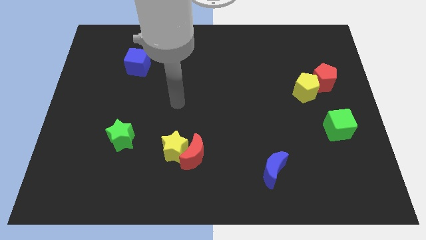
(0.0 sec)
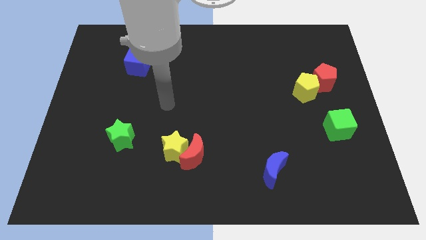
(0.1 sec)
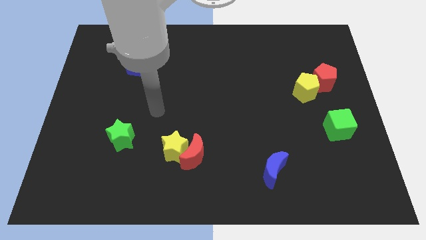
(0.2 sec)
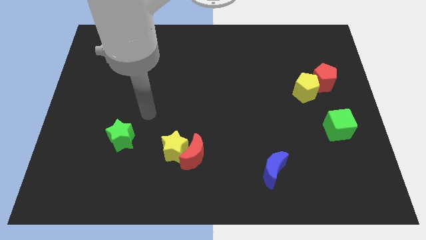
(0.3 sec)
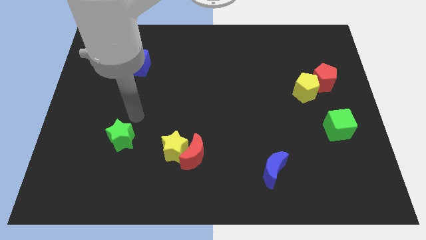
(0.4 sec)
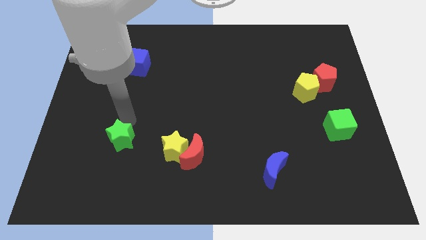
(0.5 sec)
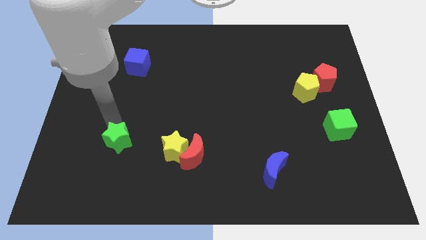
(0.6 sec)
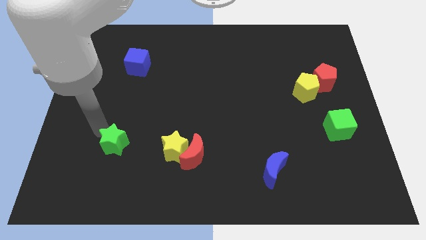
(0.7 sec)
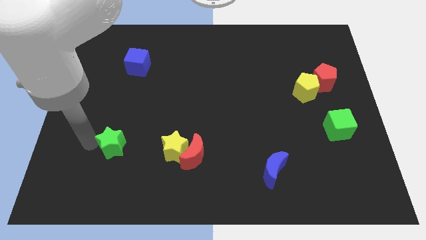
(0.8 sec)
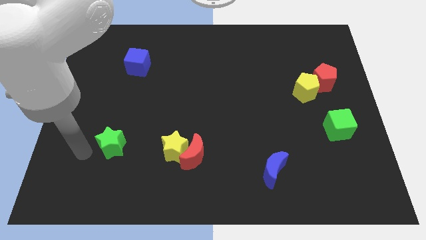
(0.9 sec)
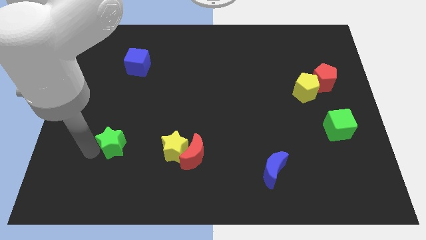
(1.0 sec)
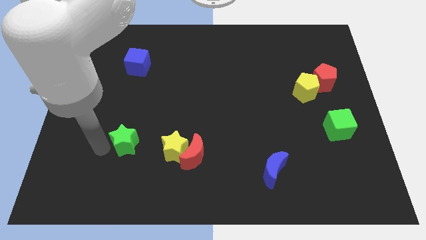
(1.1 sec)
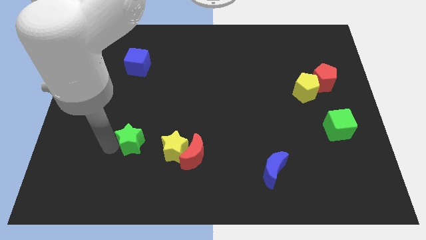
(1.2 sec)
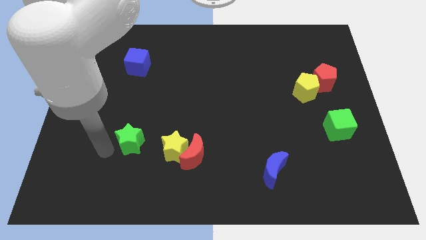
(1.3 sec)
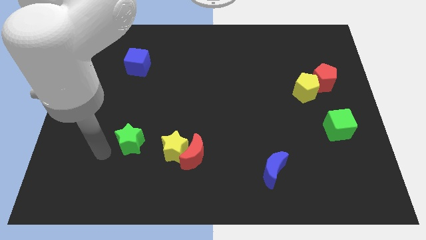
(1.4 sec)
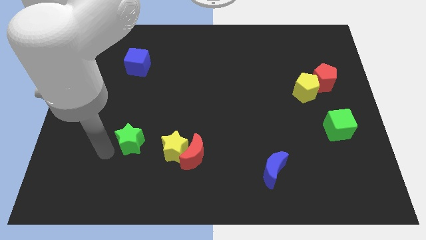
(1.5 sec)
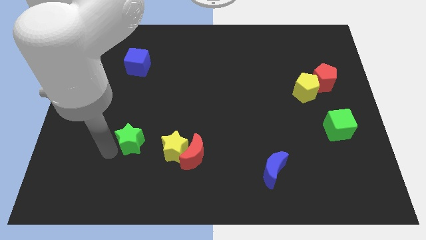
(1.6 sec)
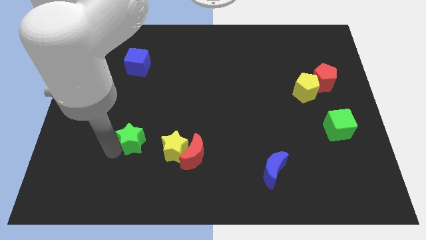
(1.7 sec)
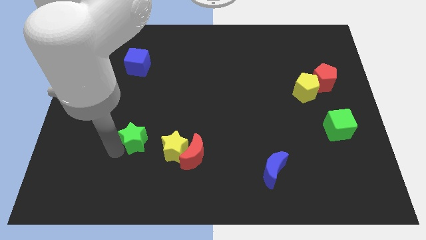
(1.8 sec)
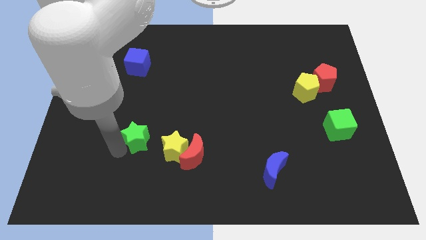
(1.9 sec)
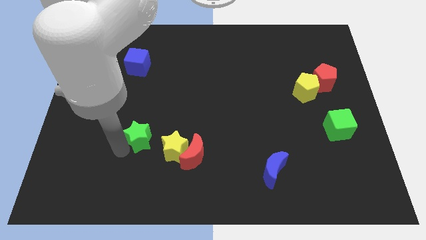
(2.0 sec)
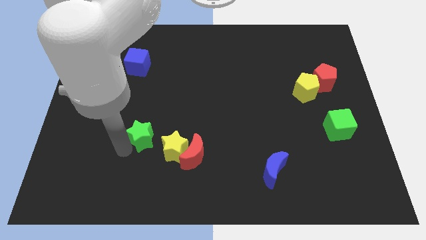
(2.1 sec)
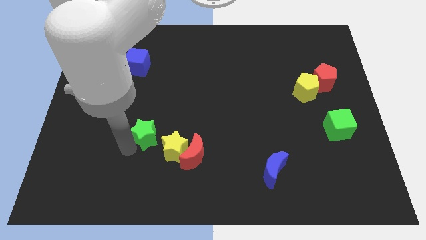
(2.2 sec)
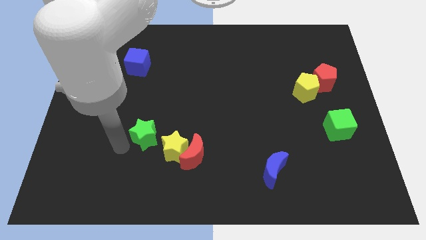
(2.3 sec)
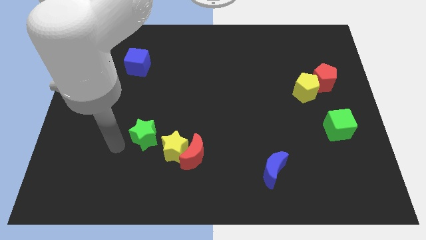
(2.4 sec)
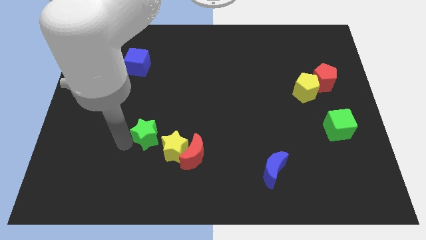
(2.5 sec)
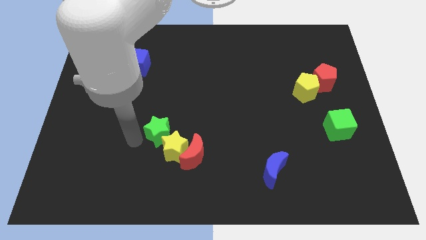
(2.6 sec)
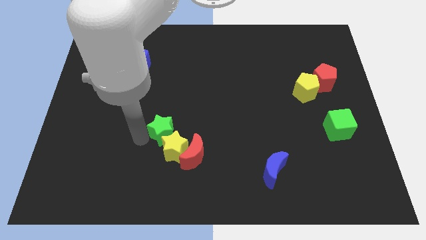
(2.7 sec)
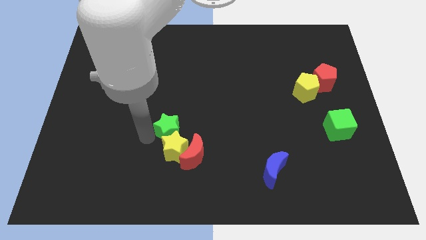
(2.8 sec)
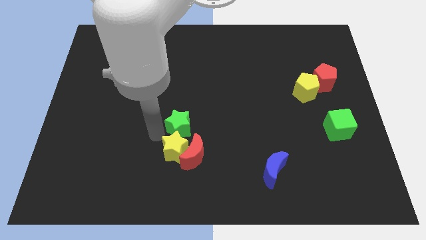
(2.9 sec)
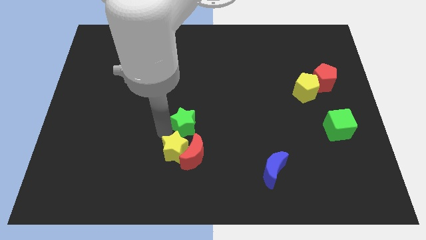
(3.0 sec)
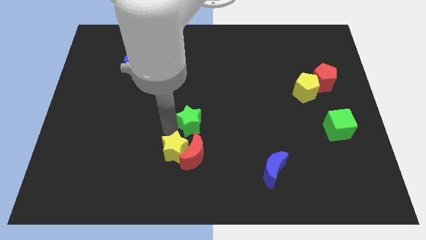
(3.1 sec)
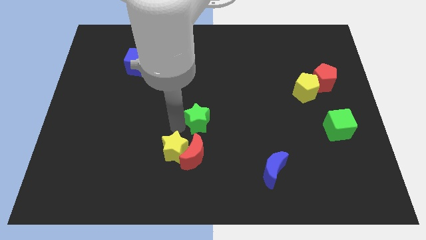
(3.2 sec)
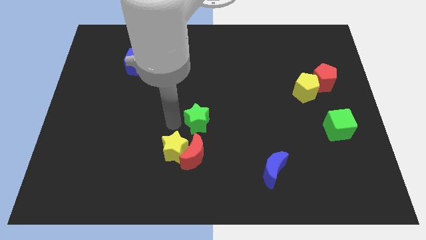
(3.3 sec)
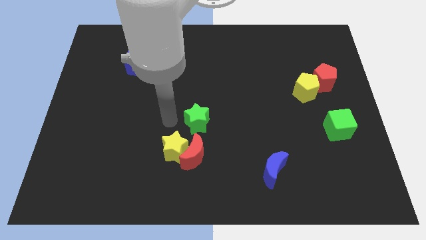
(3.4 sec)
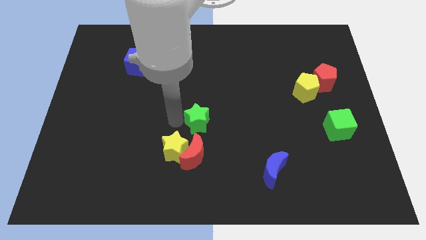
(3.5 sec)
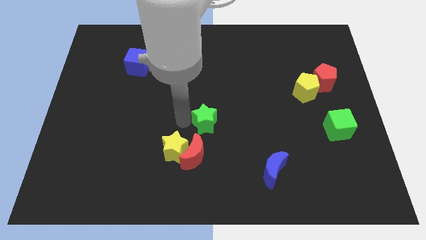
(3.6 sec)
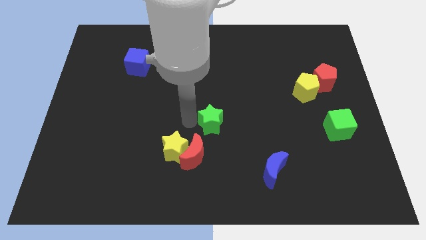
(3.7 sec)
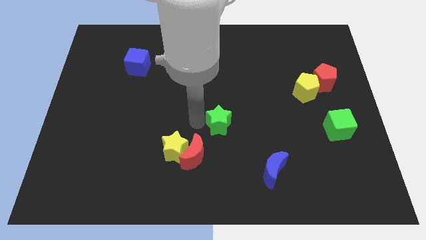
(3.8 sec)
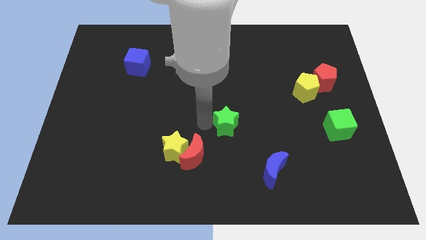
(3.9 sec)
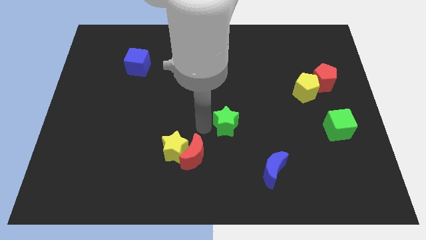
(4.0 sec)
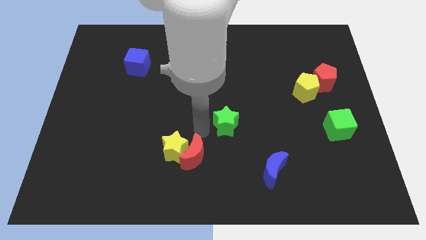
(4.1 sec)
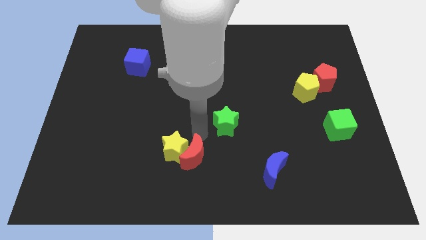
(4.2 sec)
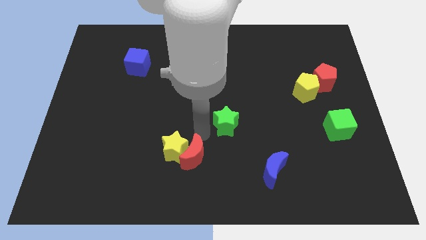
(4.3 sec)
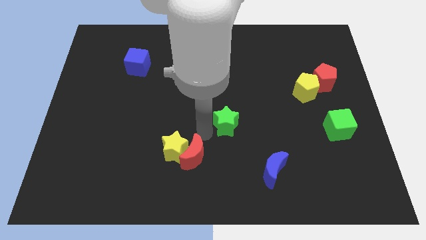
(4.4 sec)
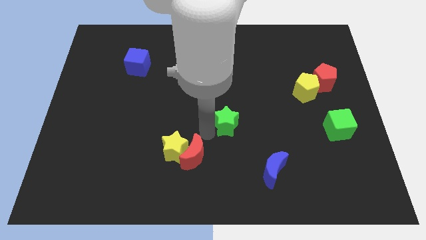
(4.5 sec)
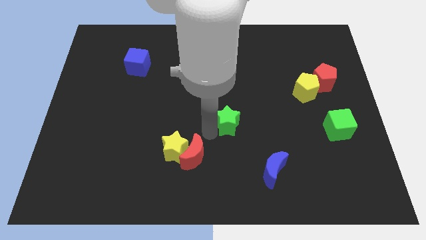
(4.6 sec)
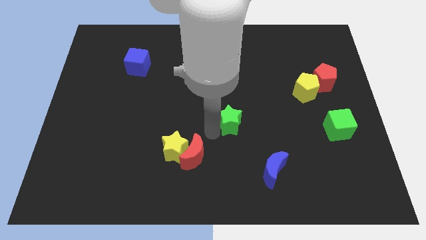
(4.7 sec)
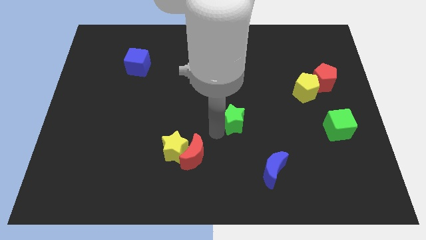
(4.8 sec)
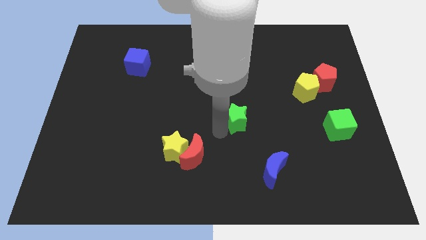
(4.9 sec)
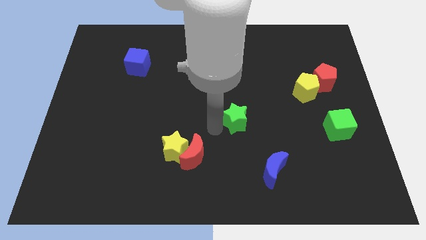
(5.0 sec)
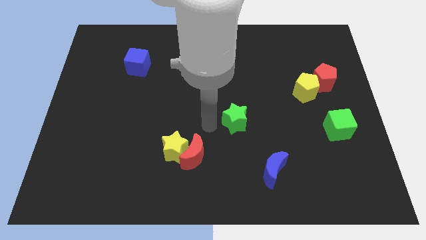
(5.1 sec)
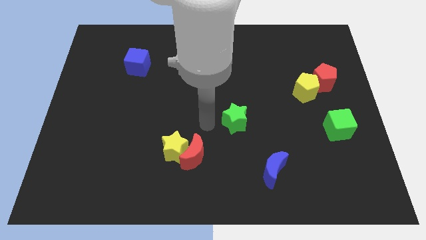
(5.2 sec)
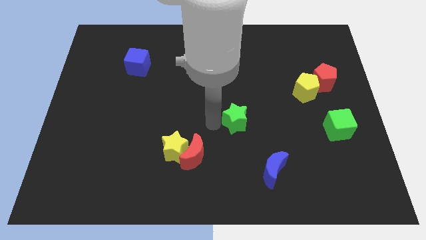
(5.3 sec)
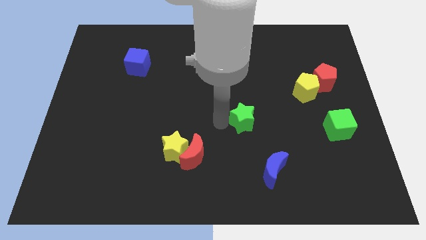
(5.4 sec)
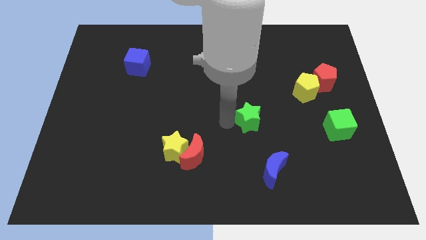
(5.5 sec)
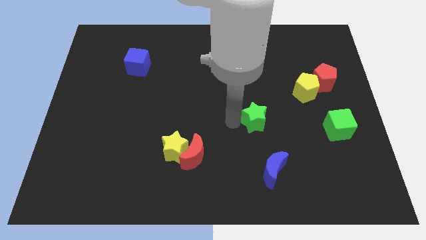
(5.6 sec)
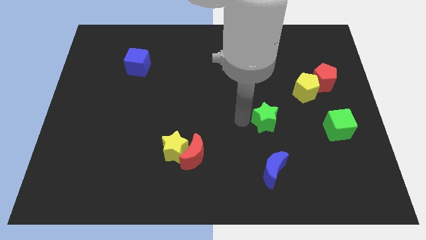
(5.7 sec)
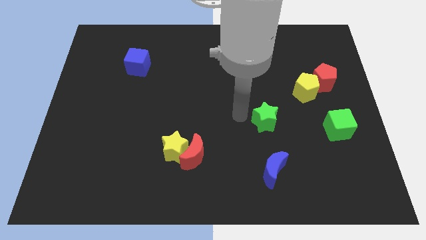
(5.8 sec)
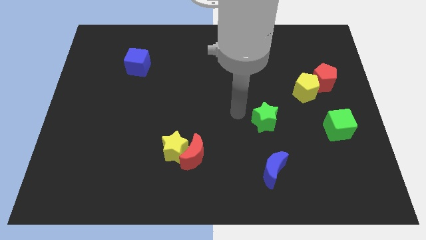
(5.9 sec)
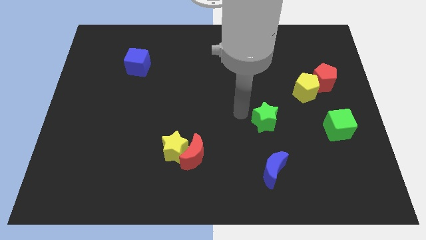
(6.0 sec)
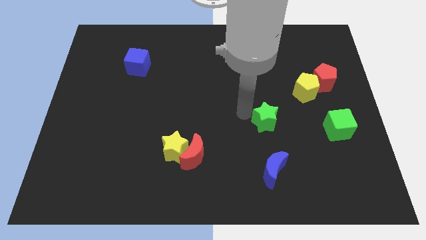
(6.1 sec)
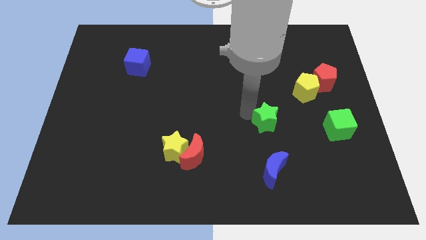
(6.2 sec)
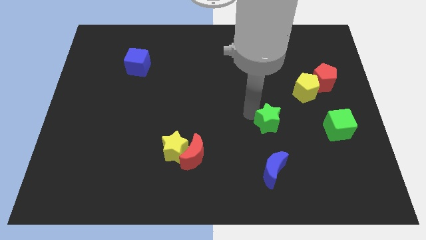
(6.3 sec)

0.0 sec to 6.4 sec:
move the green star left of the green cube

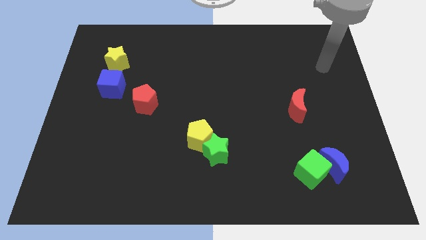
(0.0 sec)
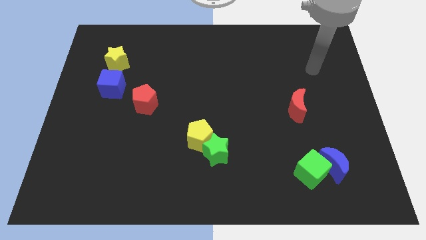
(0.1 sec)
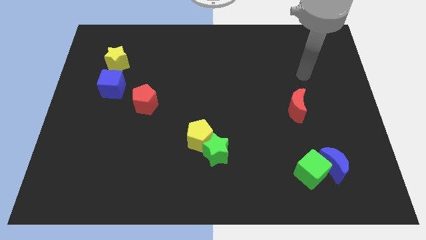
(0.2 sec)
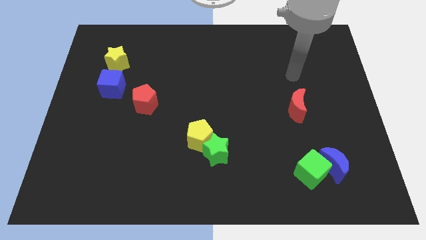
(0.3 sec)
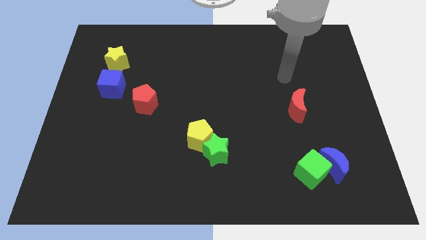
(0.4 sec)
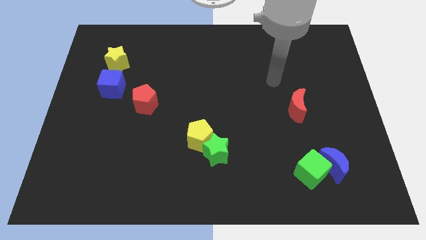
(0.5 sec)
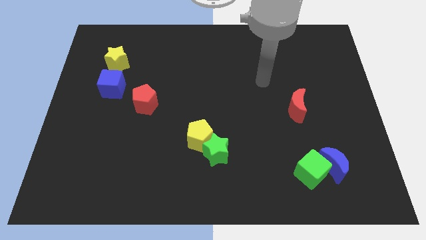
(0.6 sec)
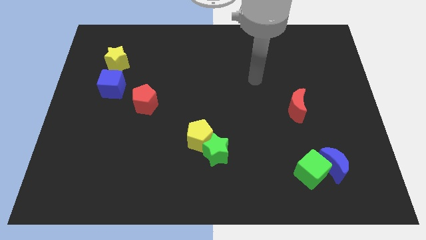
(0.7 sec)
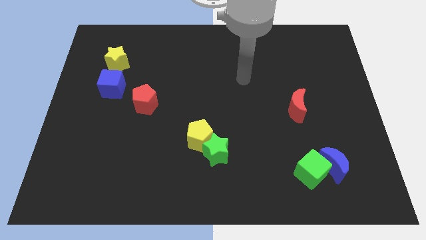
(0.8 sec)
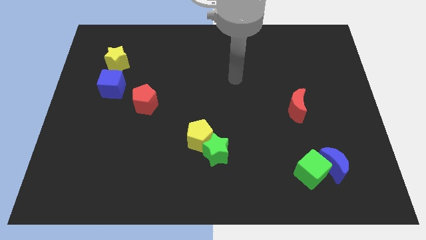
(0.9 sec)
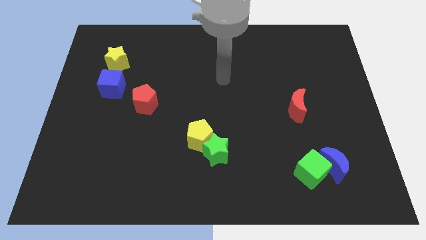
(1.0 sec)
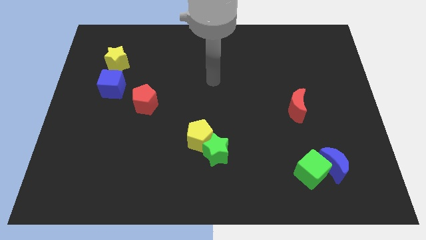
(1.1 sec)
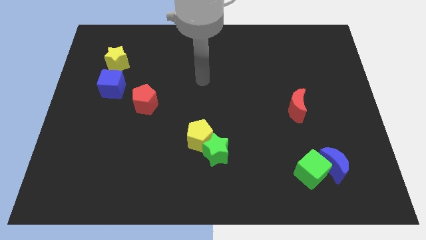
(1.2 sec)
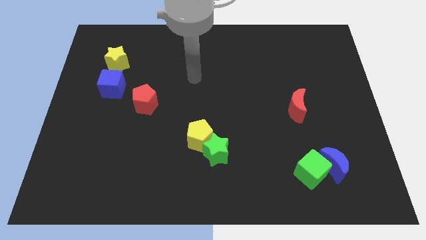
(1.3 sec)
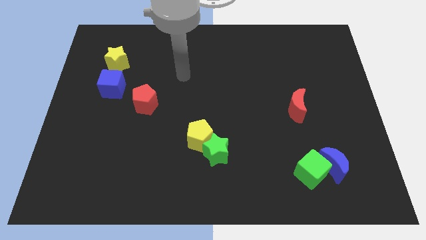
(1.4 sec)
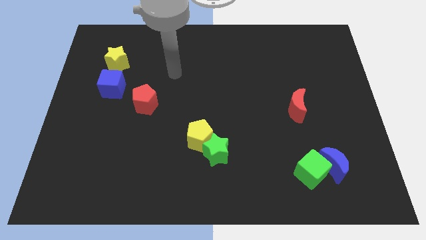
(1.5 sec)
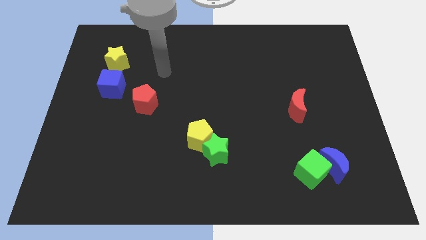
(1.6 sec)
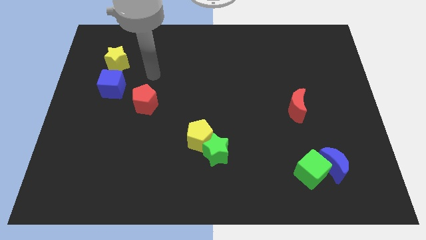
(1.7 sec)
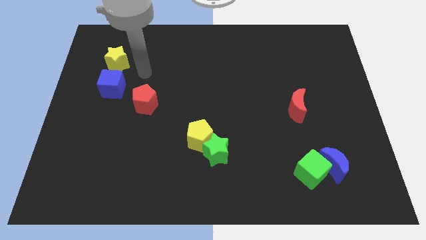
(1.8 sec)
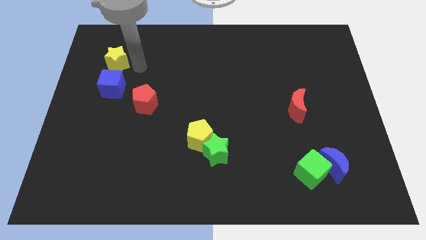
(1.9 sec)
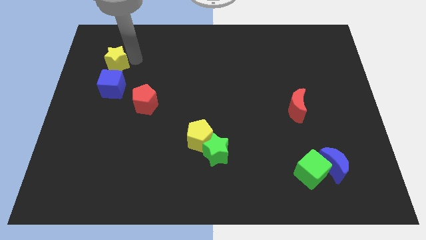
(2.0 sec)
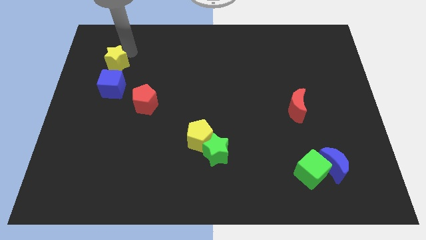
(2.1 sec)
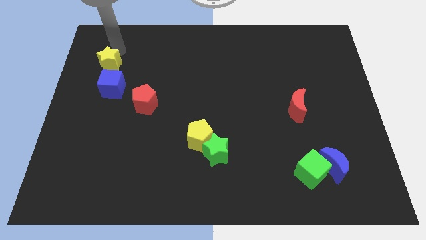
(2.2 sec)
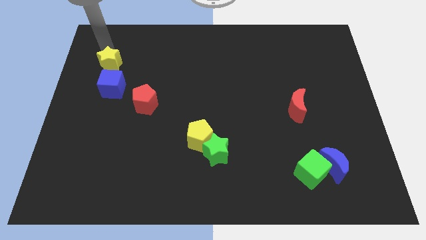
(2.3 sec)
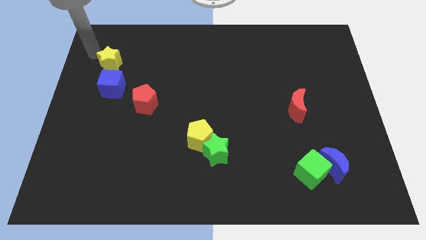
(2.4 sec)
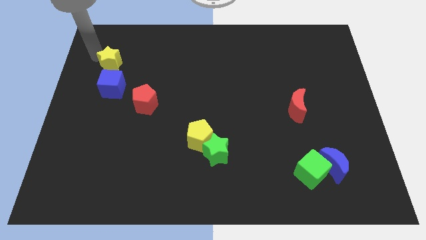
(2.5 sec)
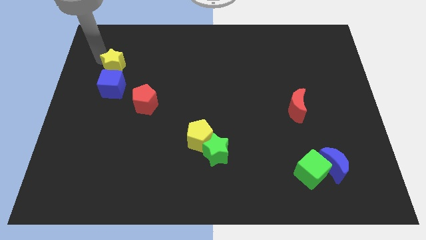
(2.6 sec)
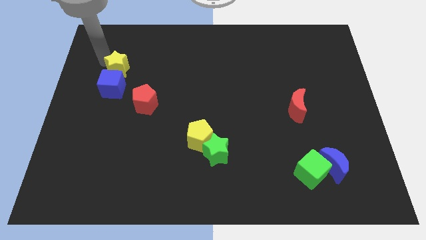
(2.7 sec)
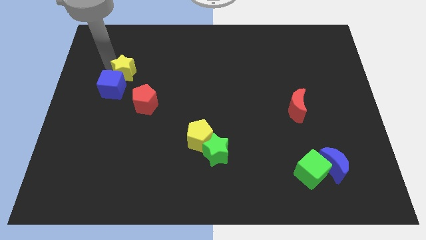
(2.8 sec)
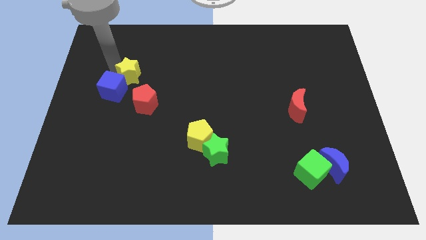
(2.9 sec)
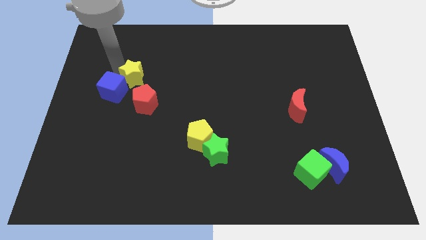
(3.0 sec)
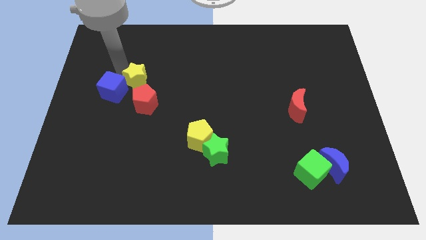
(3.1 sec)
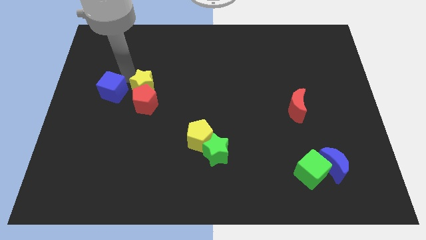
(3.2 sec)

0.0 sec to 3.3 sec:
push the yellow star diagonally up and to the right of the red pentagon
